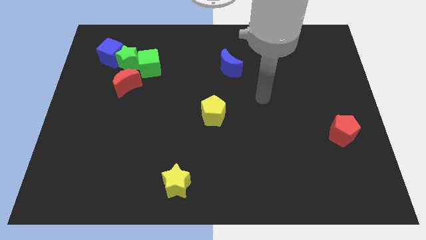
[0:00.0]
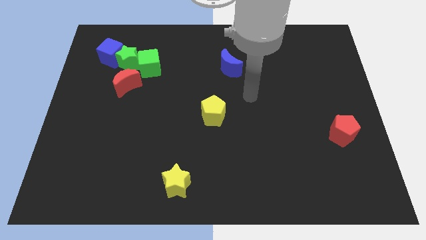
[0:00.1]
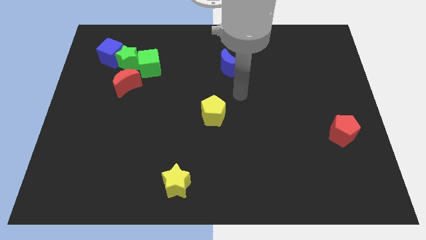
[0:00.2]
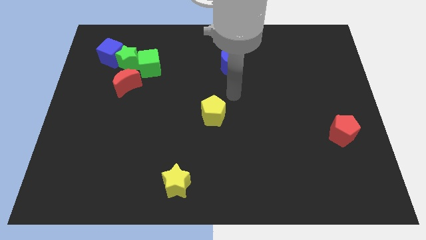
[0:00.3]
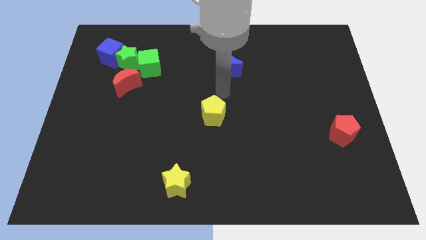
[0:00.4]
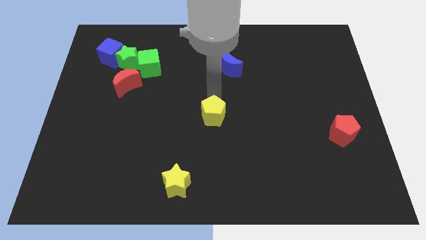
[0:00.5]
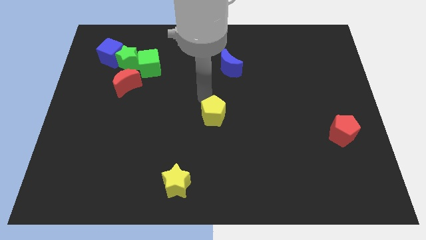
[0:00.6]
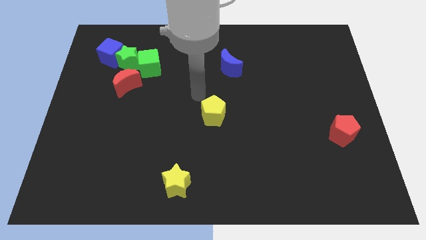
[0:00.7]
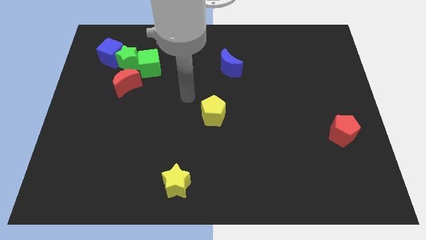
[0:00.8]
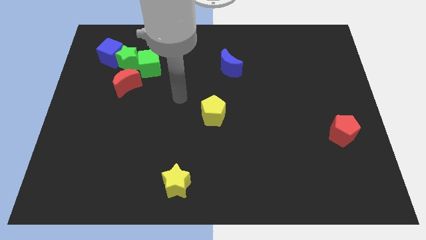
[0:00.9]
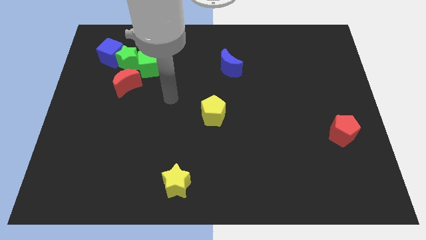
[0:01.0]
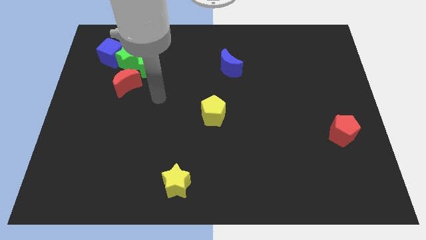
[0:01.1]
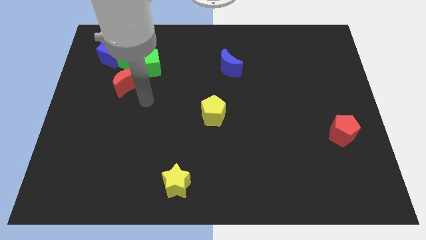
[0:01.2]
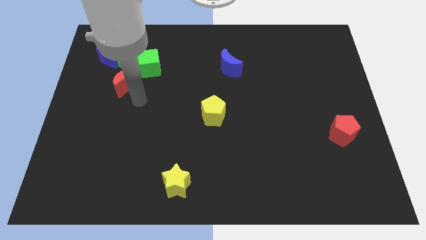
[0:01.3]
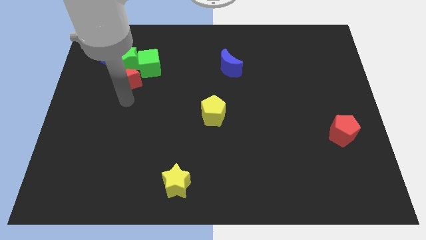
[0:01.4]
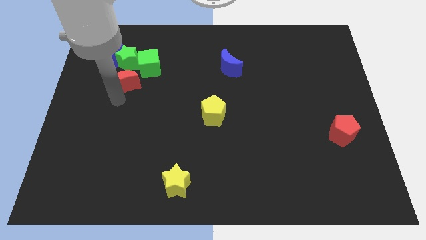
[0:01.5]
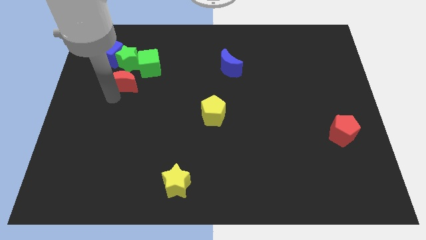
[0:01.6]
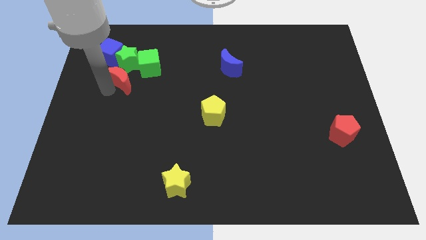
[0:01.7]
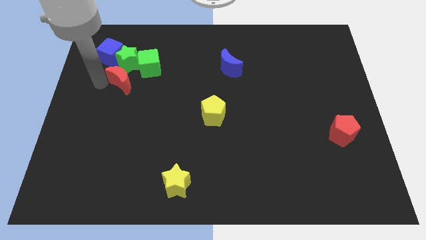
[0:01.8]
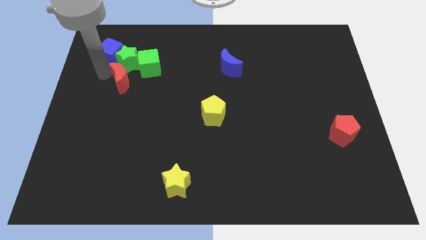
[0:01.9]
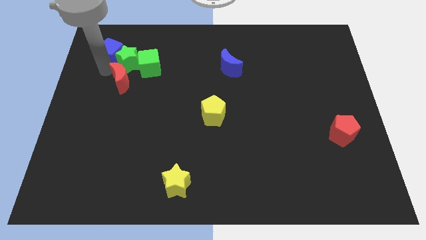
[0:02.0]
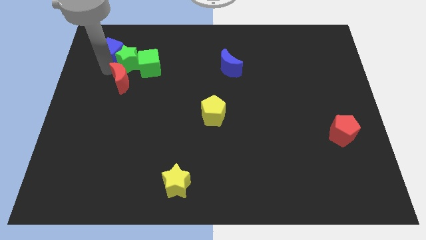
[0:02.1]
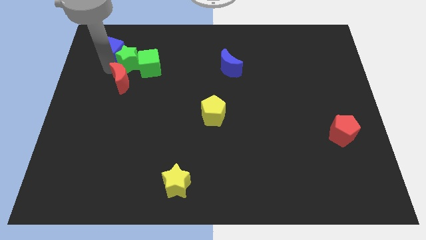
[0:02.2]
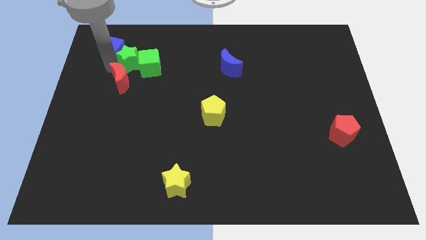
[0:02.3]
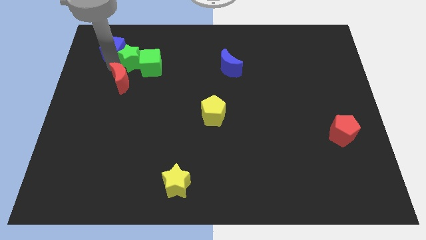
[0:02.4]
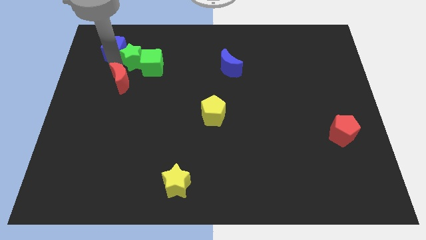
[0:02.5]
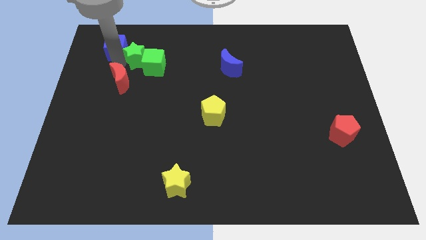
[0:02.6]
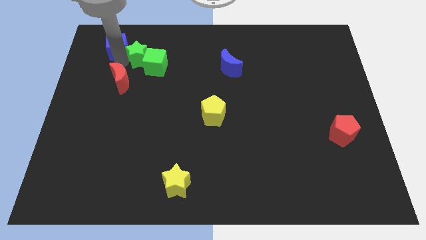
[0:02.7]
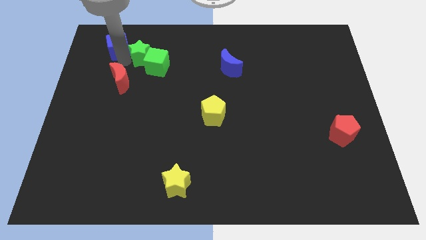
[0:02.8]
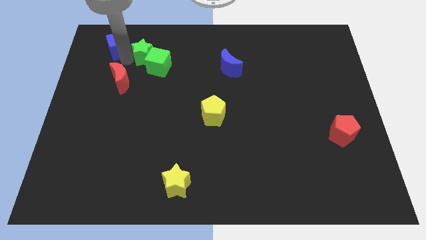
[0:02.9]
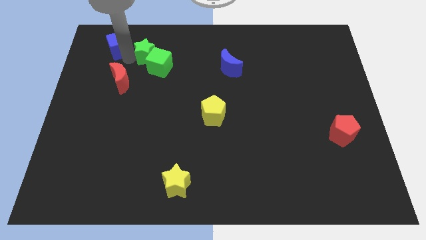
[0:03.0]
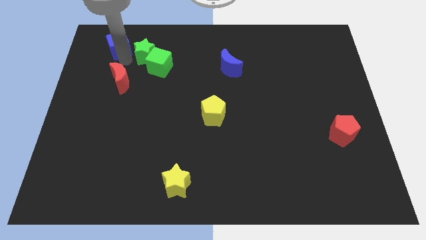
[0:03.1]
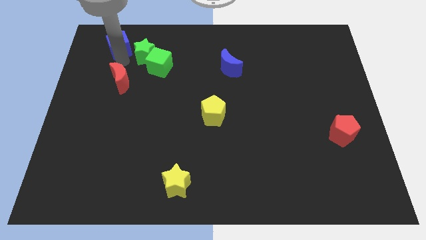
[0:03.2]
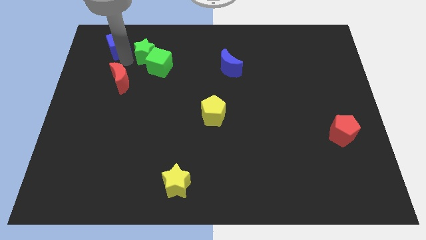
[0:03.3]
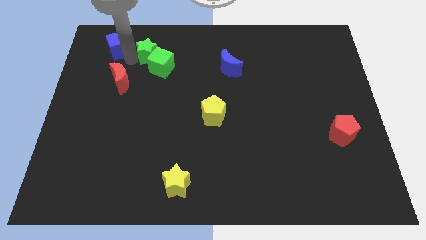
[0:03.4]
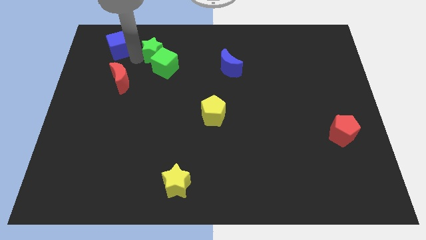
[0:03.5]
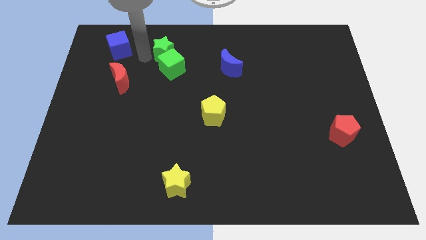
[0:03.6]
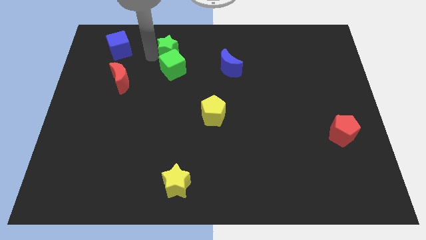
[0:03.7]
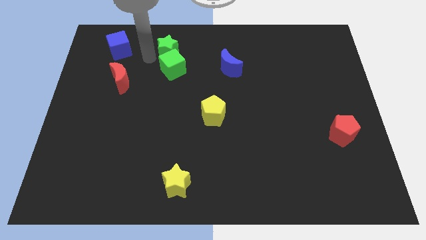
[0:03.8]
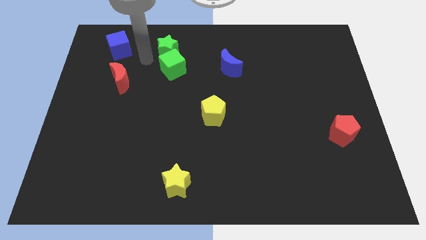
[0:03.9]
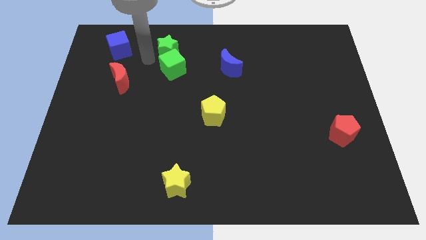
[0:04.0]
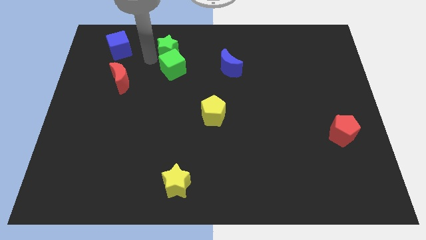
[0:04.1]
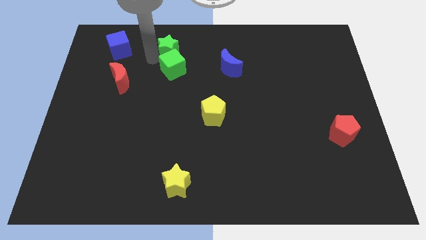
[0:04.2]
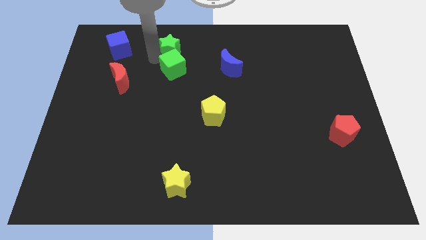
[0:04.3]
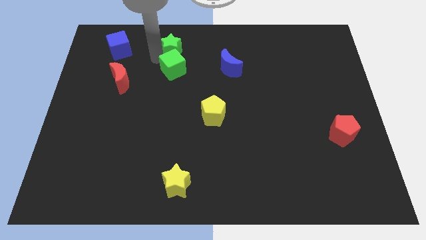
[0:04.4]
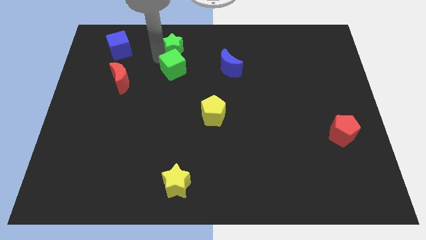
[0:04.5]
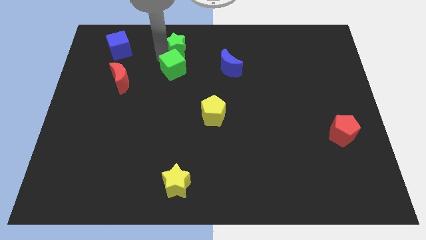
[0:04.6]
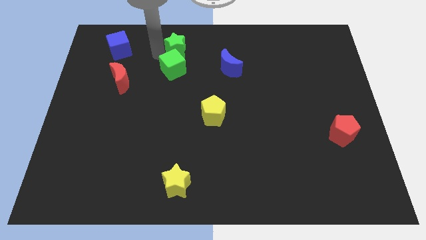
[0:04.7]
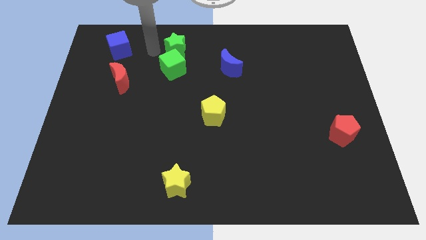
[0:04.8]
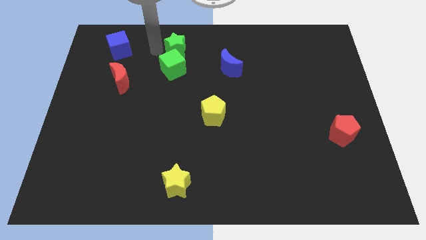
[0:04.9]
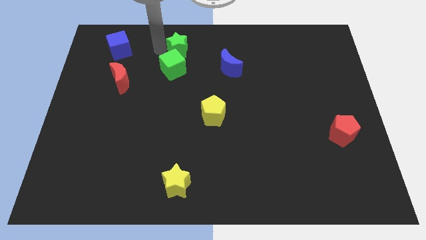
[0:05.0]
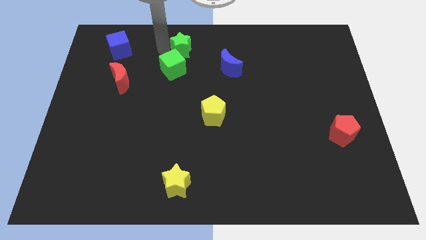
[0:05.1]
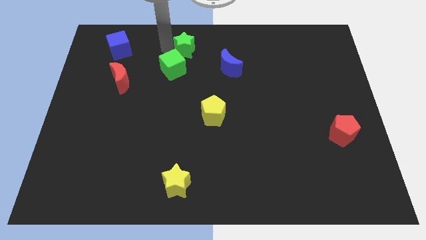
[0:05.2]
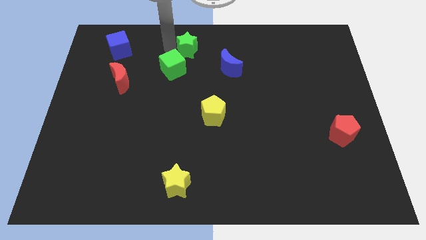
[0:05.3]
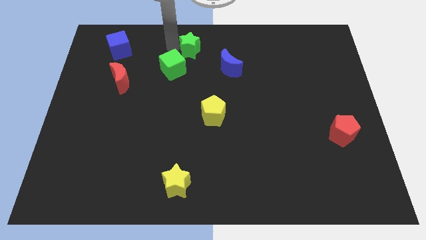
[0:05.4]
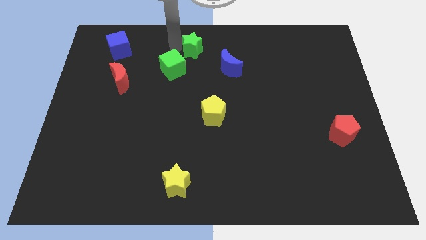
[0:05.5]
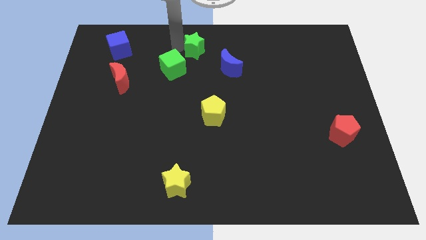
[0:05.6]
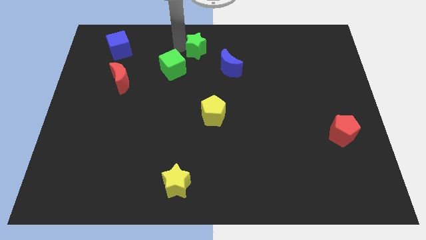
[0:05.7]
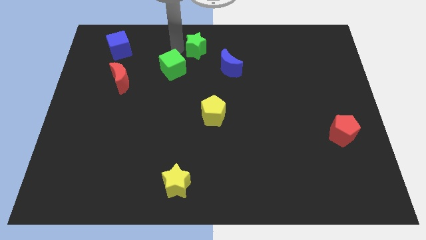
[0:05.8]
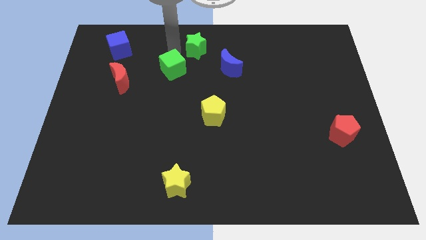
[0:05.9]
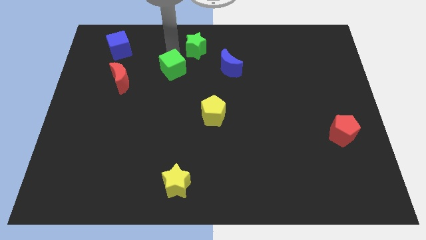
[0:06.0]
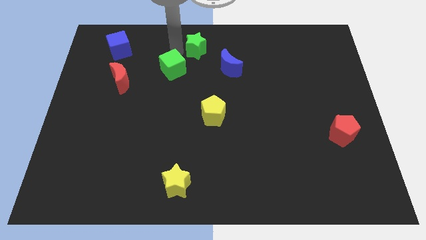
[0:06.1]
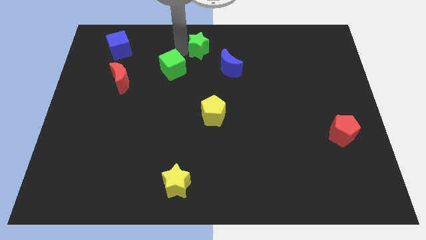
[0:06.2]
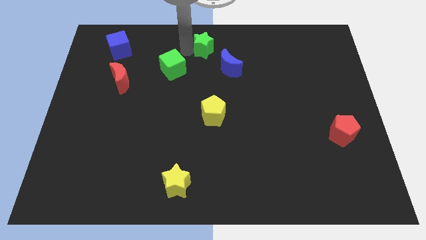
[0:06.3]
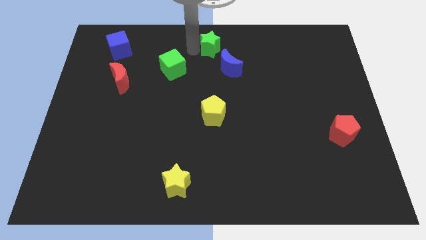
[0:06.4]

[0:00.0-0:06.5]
move the green star to the right

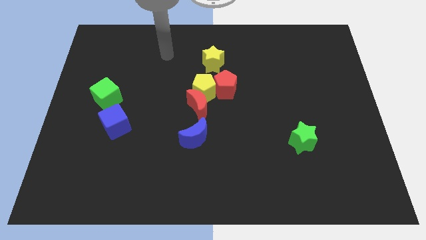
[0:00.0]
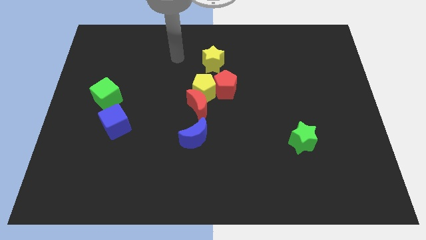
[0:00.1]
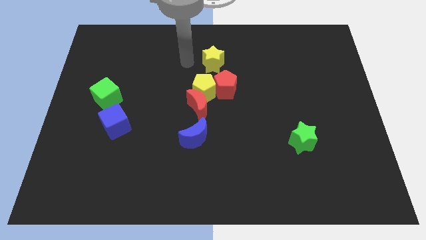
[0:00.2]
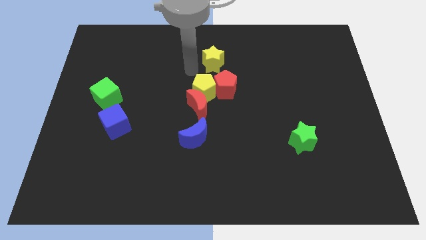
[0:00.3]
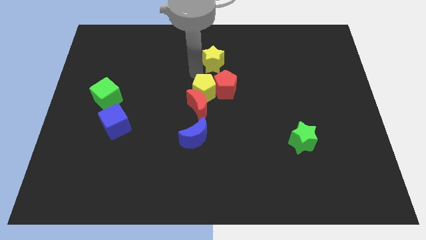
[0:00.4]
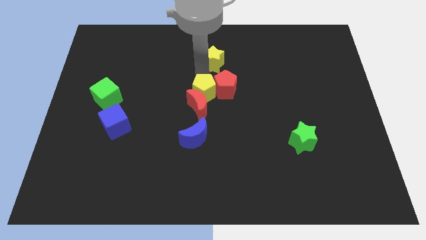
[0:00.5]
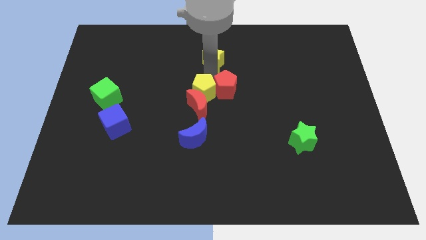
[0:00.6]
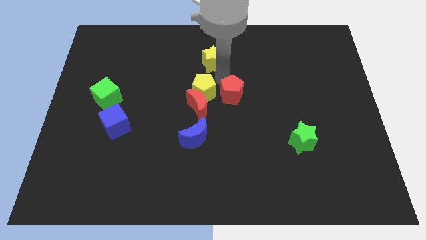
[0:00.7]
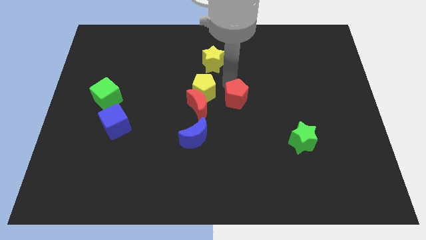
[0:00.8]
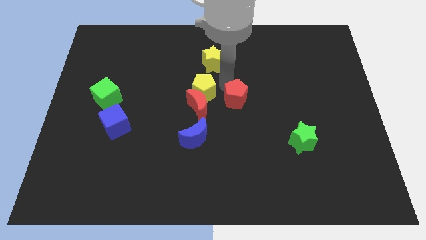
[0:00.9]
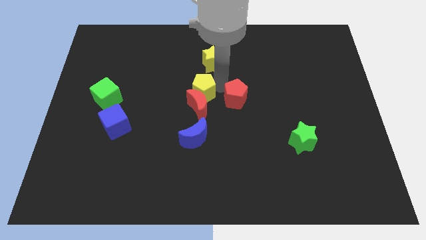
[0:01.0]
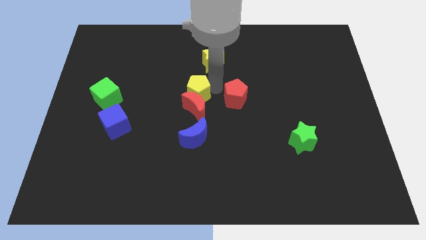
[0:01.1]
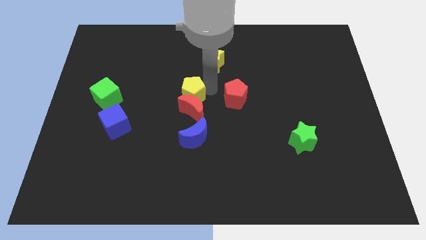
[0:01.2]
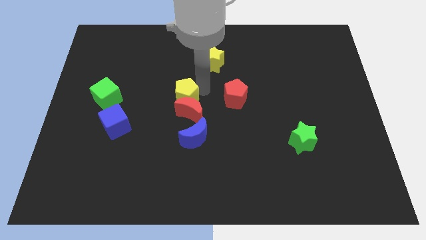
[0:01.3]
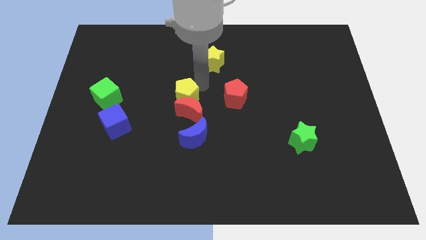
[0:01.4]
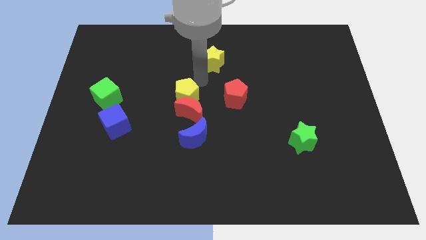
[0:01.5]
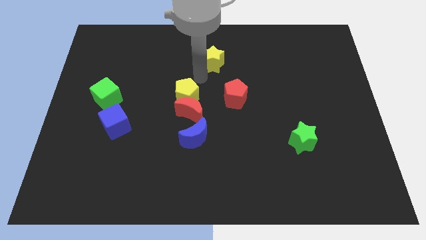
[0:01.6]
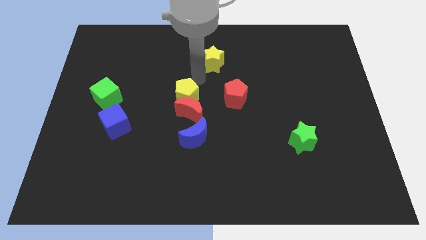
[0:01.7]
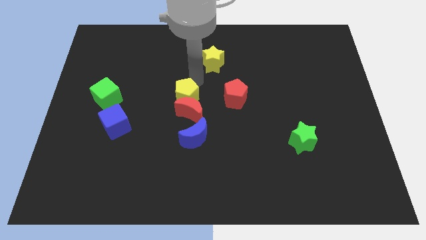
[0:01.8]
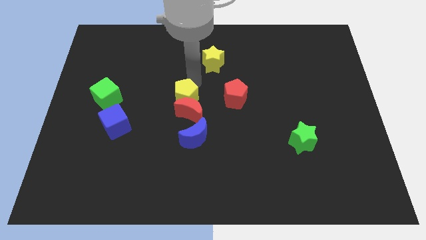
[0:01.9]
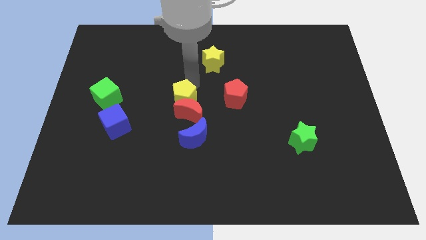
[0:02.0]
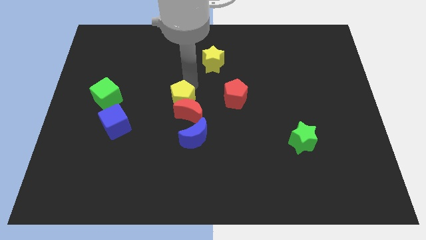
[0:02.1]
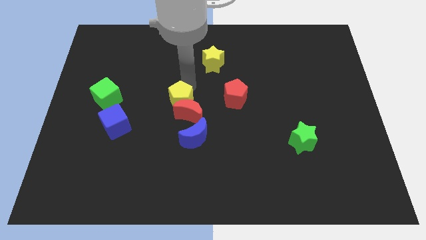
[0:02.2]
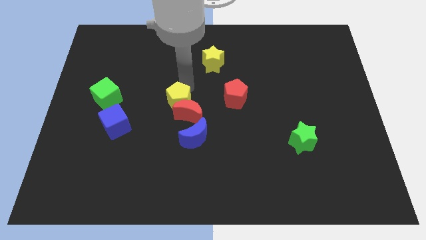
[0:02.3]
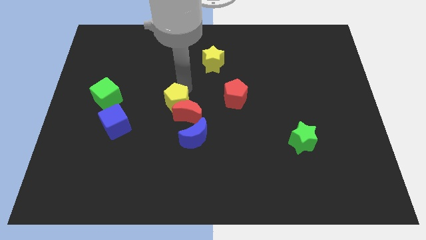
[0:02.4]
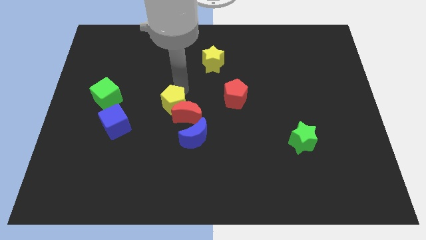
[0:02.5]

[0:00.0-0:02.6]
move the yellow pentagon down and to the left diagonally slightly
